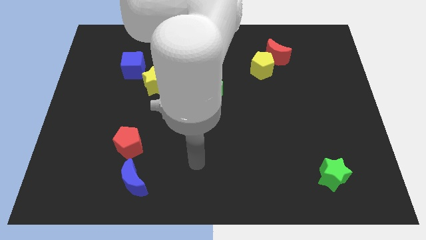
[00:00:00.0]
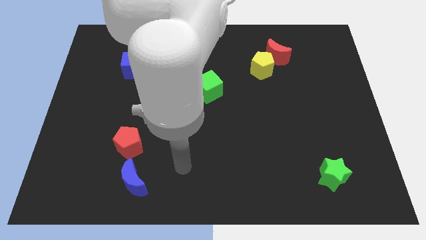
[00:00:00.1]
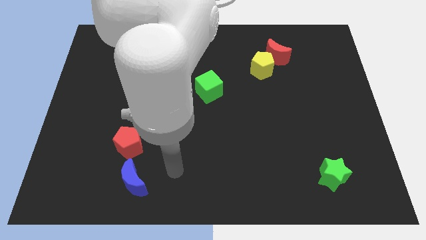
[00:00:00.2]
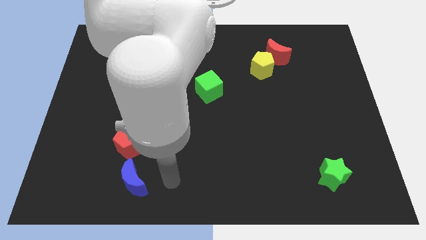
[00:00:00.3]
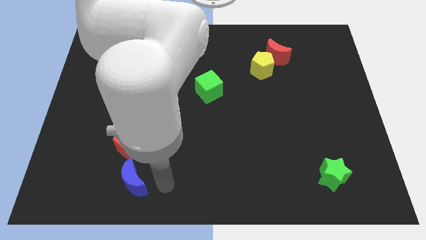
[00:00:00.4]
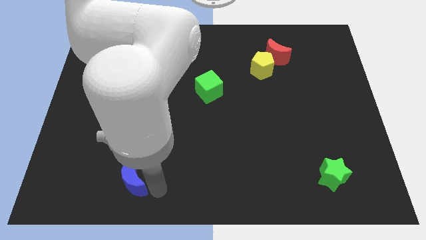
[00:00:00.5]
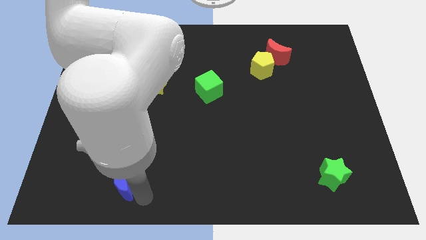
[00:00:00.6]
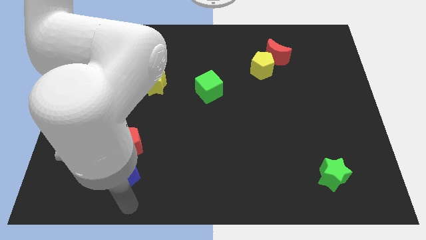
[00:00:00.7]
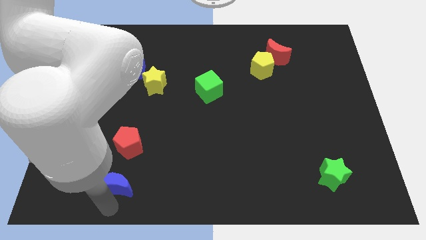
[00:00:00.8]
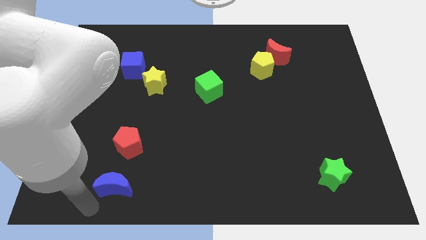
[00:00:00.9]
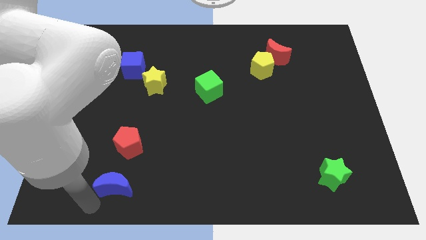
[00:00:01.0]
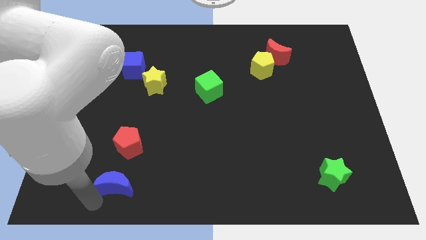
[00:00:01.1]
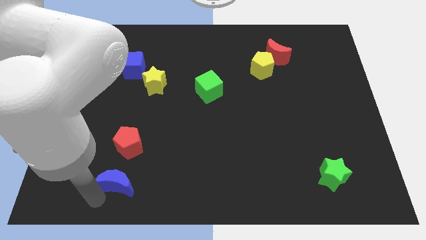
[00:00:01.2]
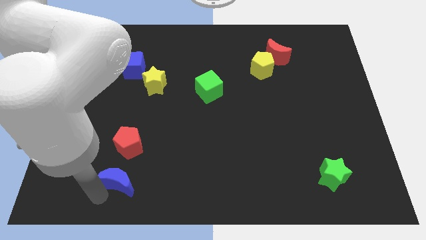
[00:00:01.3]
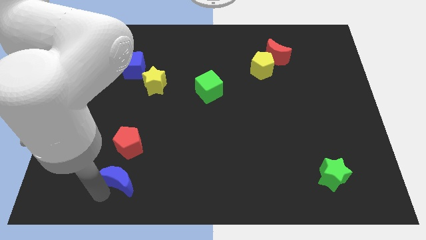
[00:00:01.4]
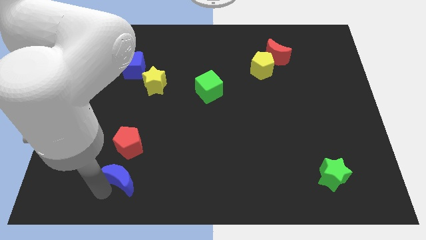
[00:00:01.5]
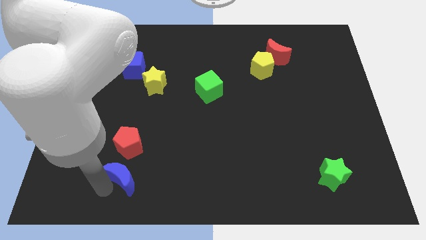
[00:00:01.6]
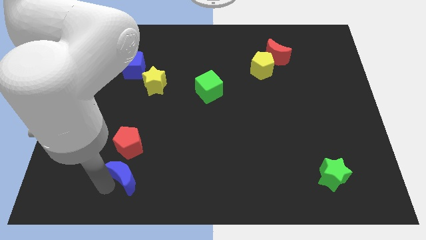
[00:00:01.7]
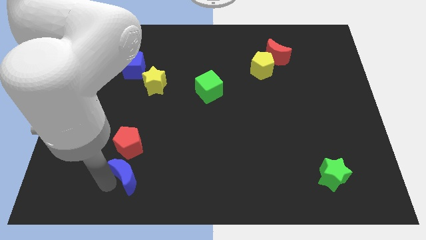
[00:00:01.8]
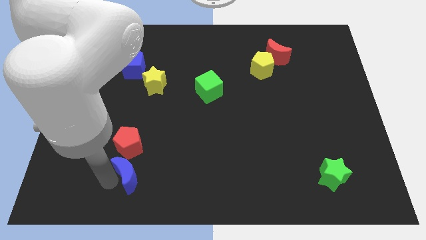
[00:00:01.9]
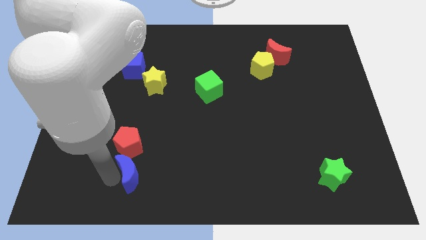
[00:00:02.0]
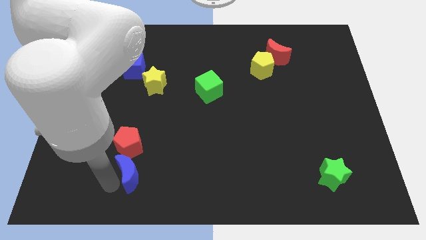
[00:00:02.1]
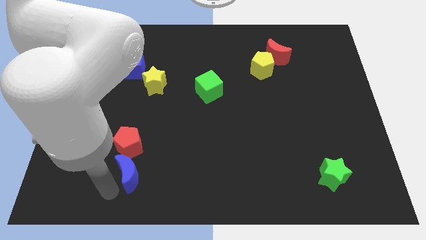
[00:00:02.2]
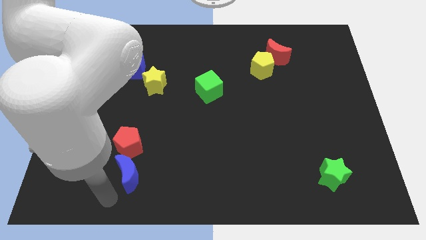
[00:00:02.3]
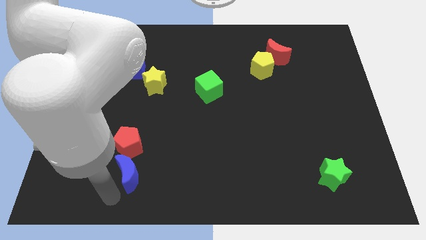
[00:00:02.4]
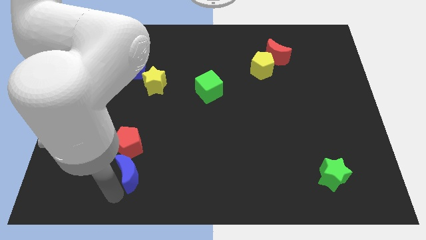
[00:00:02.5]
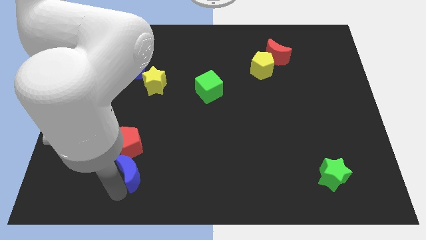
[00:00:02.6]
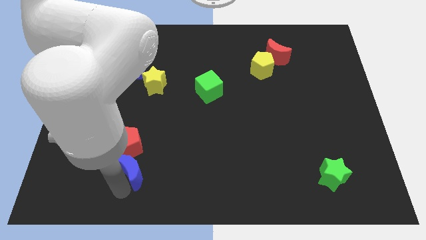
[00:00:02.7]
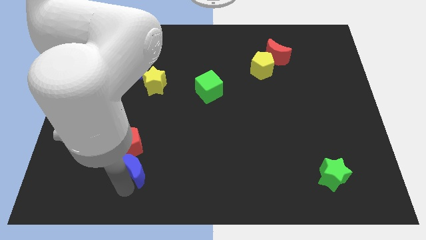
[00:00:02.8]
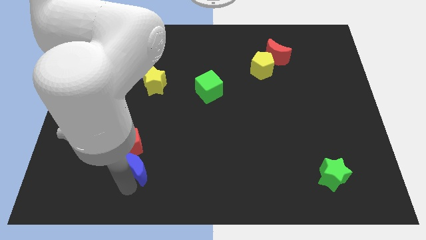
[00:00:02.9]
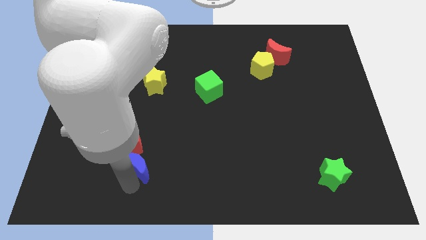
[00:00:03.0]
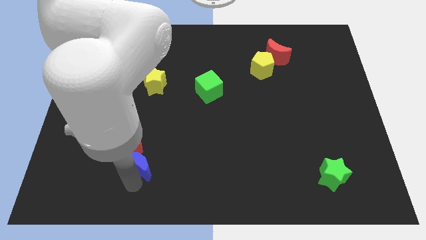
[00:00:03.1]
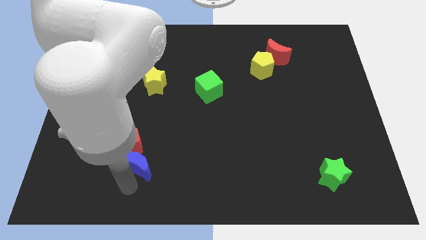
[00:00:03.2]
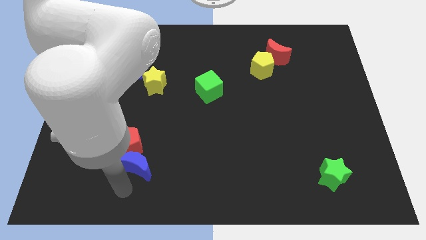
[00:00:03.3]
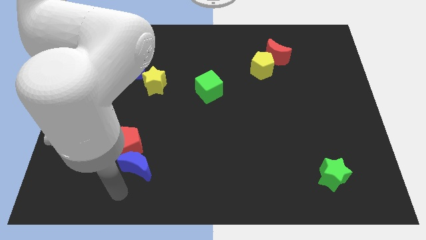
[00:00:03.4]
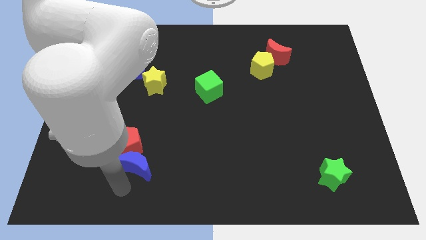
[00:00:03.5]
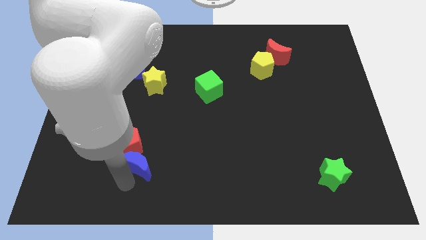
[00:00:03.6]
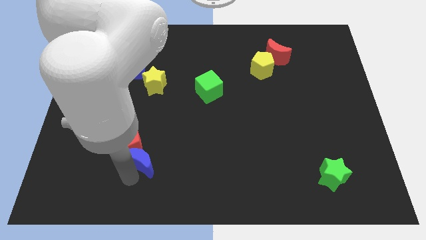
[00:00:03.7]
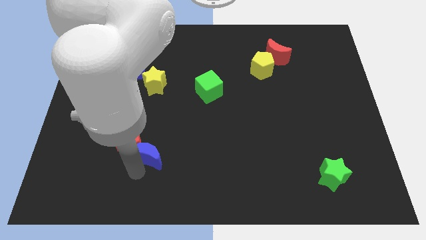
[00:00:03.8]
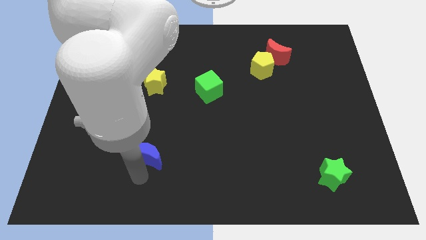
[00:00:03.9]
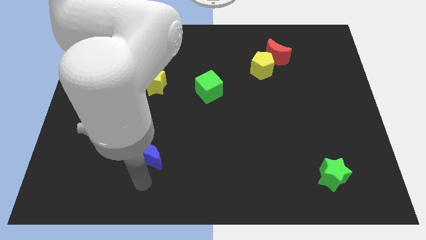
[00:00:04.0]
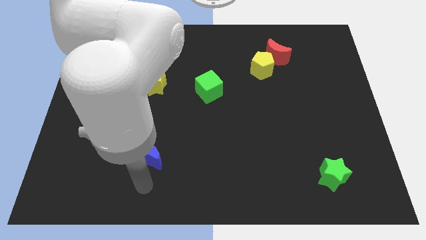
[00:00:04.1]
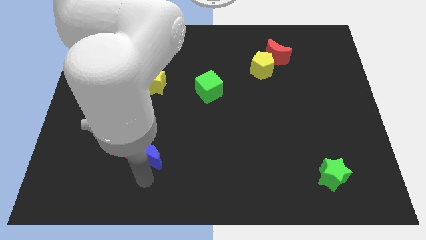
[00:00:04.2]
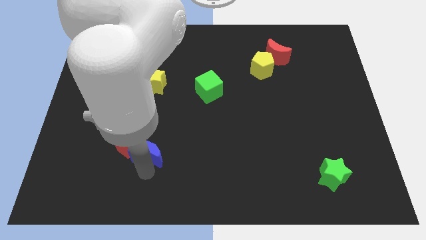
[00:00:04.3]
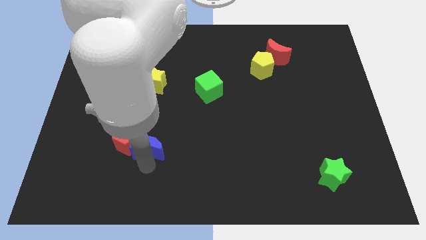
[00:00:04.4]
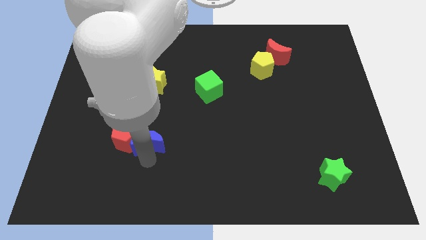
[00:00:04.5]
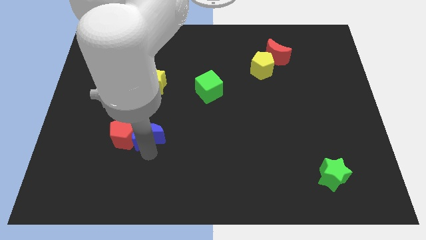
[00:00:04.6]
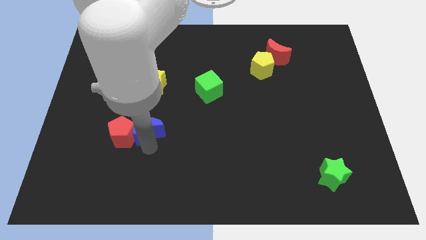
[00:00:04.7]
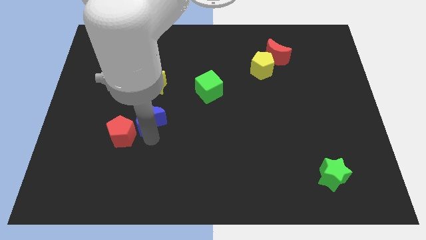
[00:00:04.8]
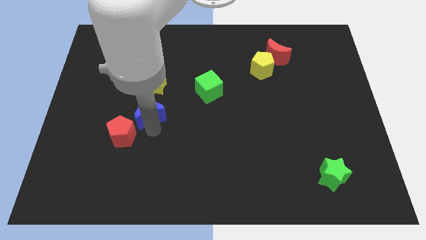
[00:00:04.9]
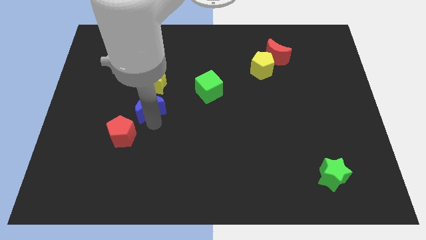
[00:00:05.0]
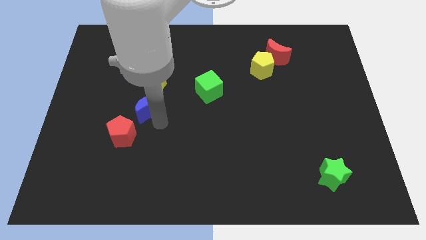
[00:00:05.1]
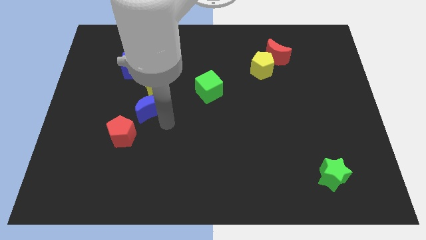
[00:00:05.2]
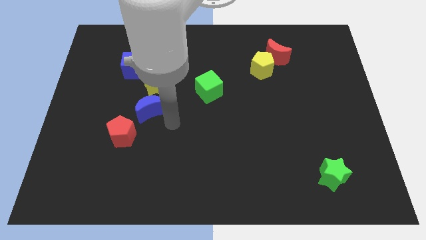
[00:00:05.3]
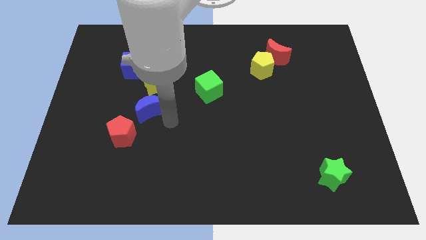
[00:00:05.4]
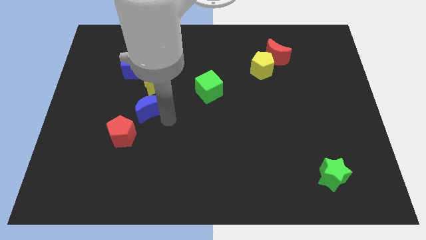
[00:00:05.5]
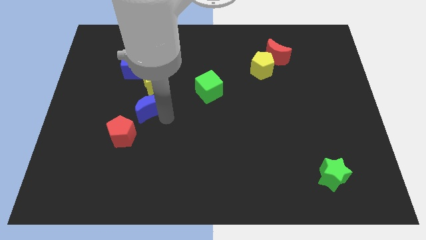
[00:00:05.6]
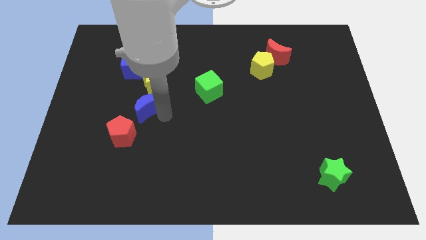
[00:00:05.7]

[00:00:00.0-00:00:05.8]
slide the blue moon to the top of the red pentagon

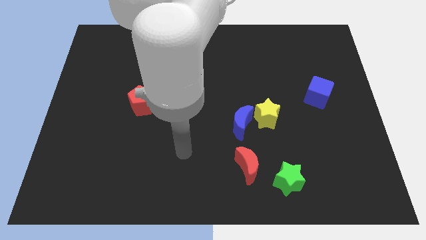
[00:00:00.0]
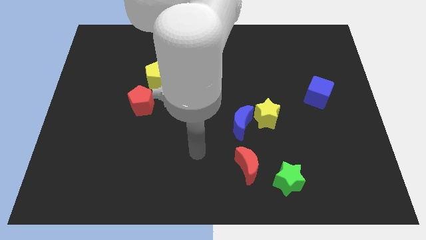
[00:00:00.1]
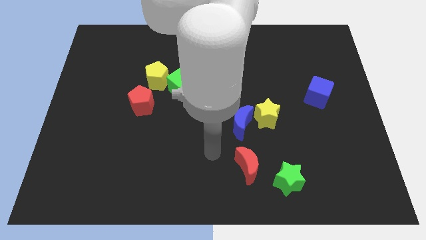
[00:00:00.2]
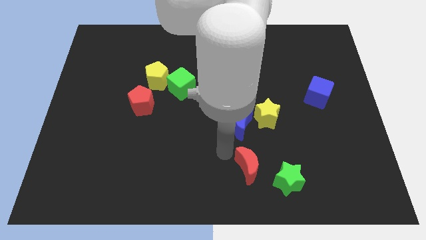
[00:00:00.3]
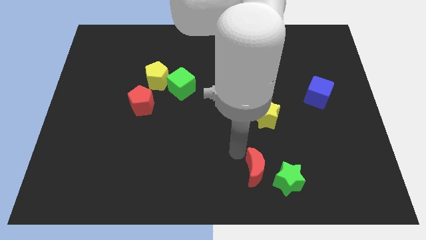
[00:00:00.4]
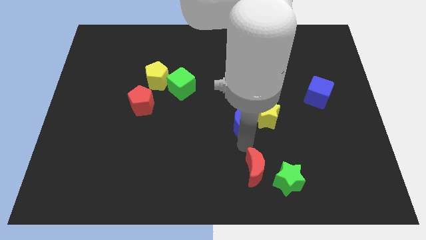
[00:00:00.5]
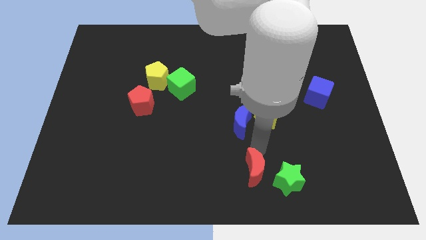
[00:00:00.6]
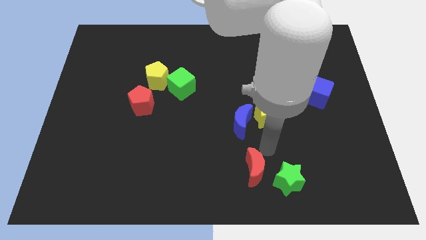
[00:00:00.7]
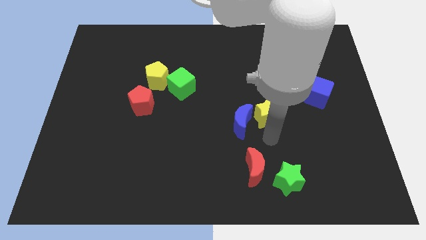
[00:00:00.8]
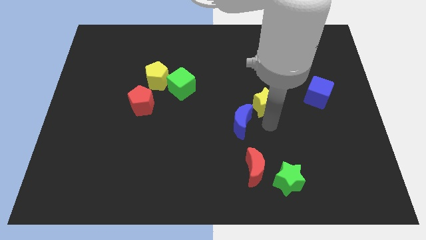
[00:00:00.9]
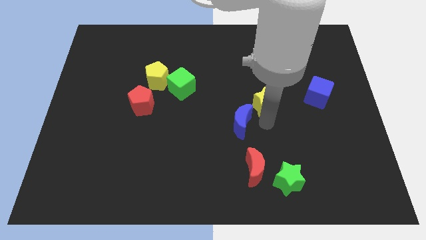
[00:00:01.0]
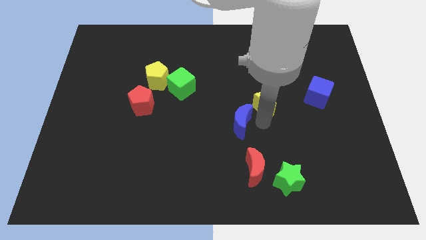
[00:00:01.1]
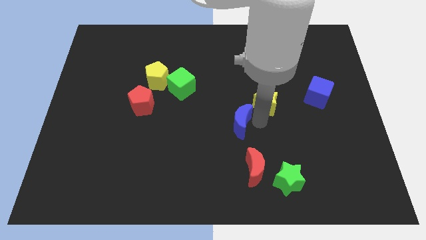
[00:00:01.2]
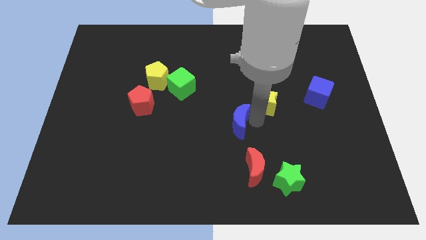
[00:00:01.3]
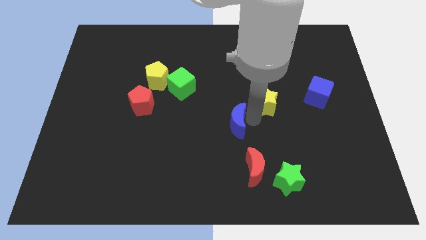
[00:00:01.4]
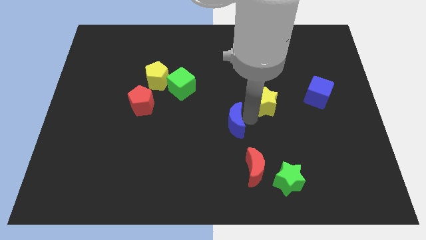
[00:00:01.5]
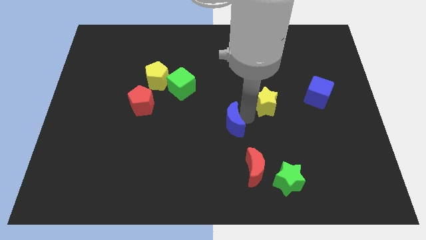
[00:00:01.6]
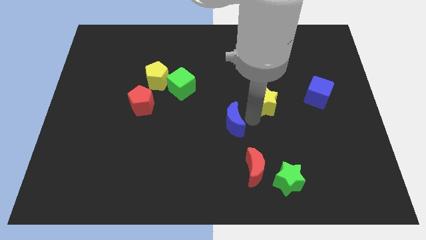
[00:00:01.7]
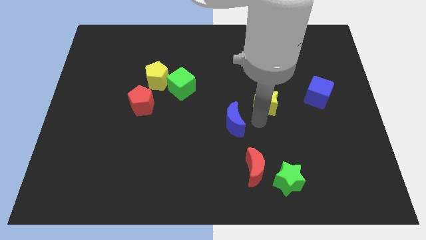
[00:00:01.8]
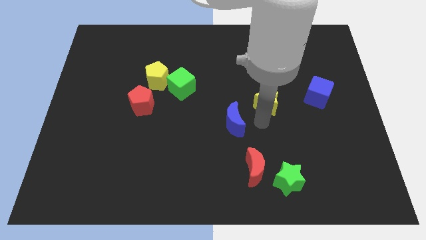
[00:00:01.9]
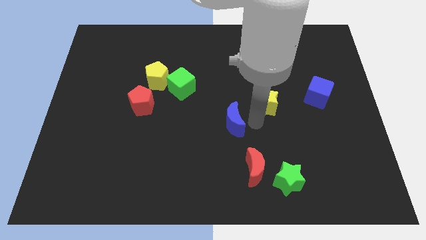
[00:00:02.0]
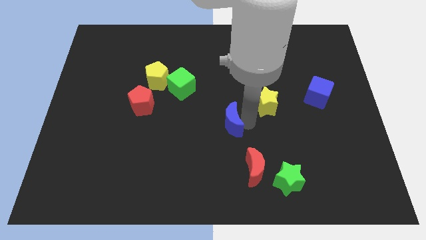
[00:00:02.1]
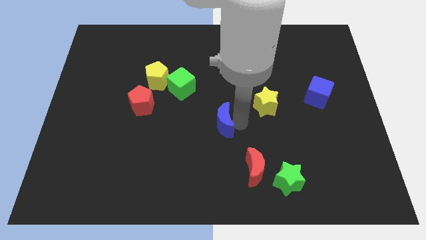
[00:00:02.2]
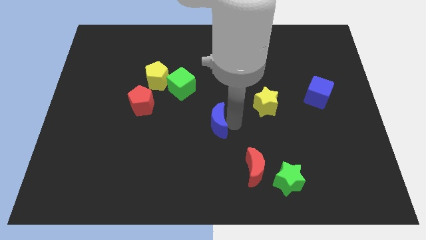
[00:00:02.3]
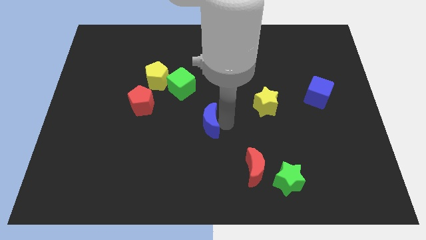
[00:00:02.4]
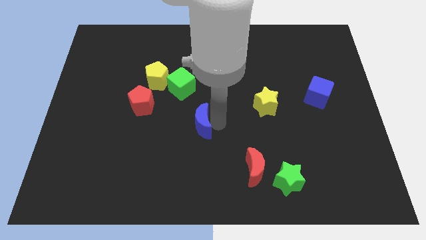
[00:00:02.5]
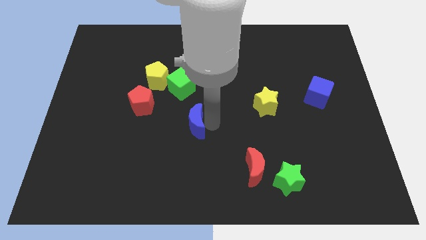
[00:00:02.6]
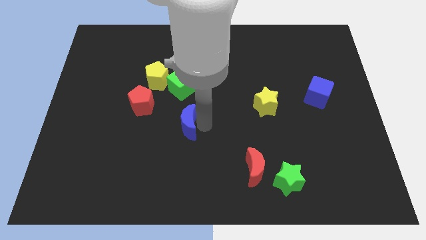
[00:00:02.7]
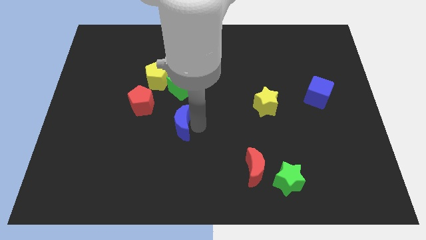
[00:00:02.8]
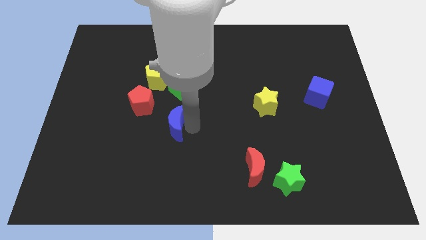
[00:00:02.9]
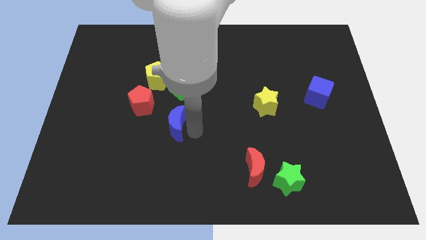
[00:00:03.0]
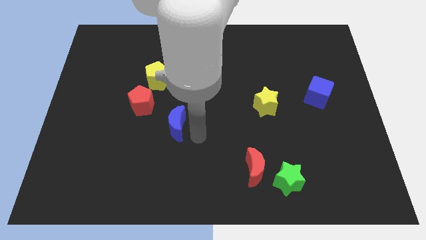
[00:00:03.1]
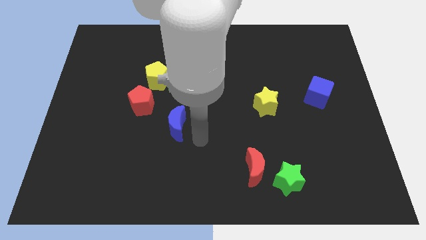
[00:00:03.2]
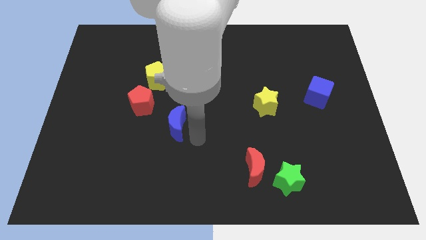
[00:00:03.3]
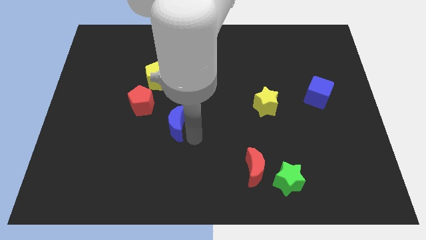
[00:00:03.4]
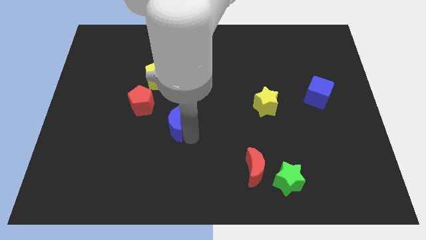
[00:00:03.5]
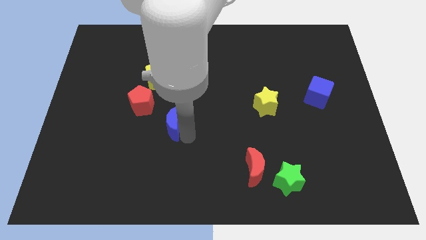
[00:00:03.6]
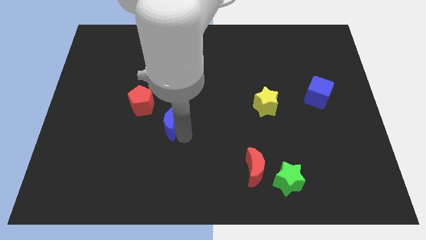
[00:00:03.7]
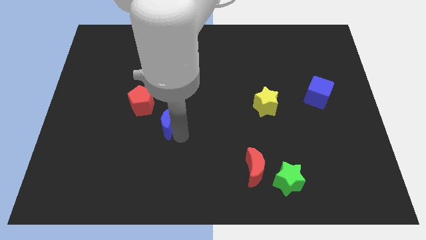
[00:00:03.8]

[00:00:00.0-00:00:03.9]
move the blue moon to the bottom side of the yellow pentagon
